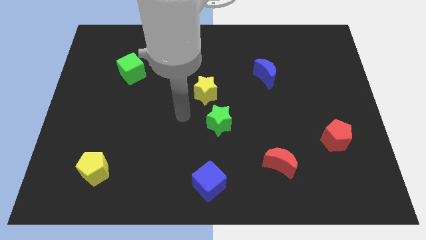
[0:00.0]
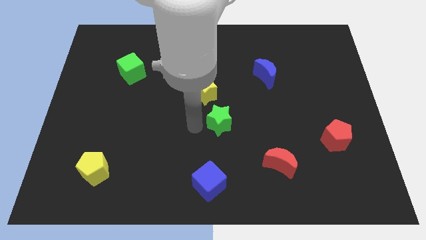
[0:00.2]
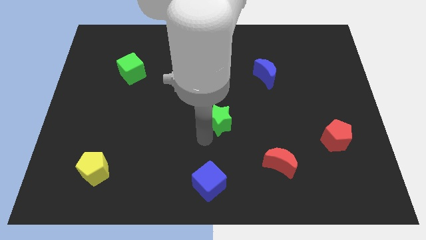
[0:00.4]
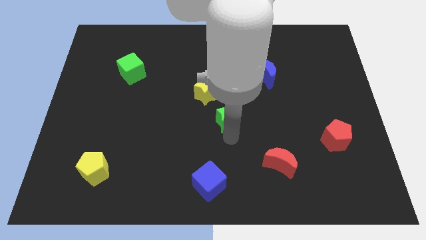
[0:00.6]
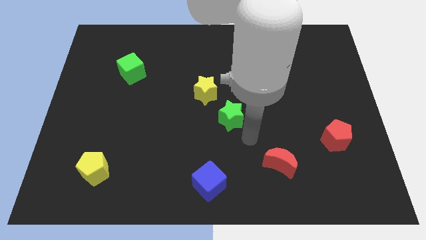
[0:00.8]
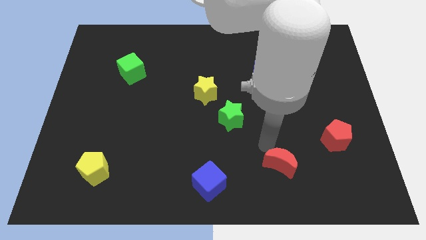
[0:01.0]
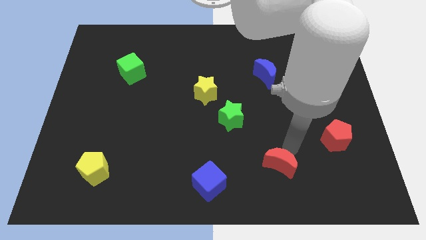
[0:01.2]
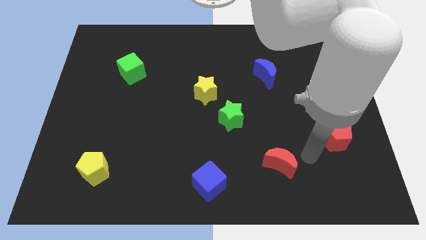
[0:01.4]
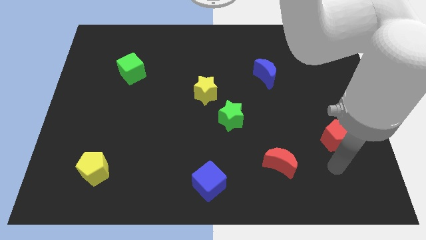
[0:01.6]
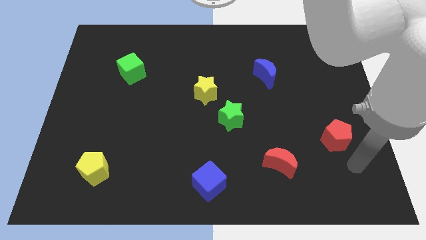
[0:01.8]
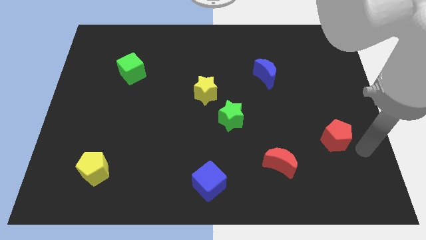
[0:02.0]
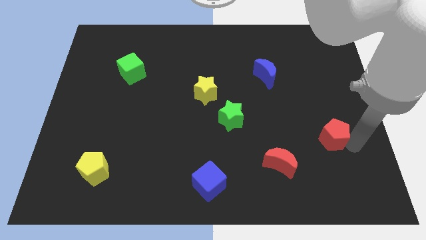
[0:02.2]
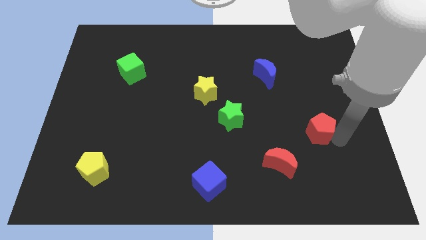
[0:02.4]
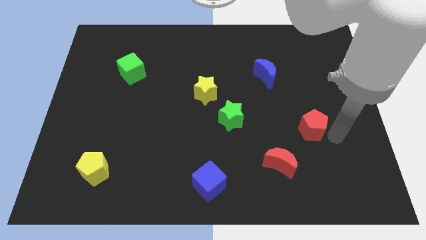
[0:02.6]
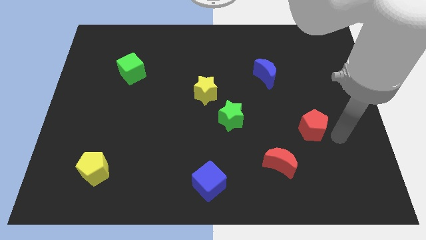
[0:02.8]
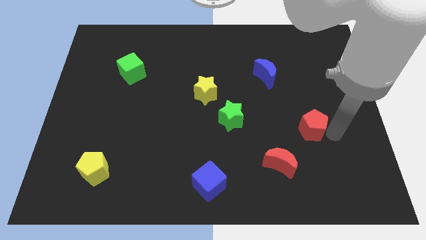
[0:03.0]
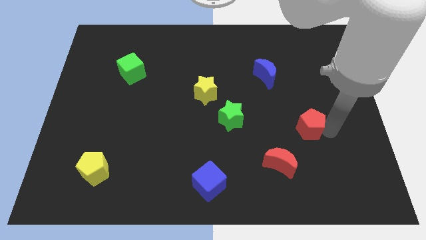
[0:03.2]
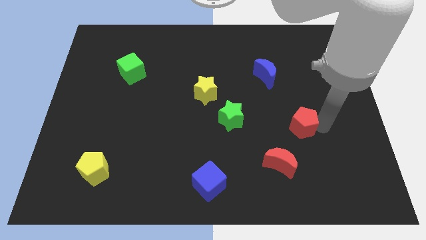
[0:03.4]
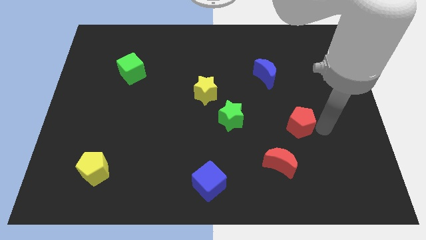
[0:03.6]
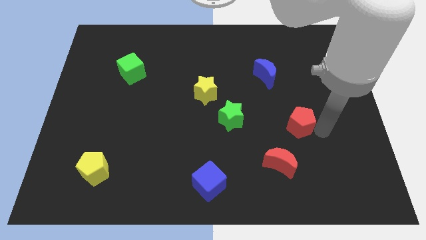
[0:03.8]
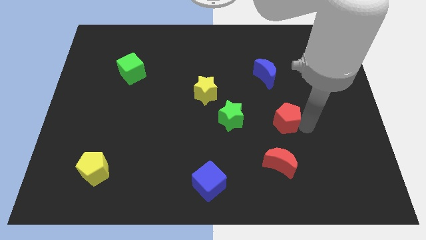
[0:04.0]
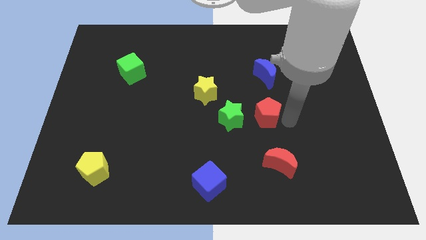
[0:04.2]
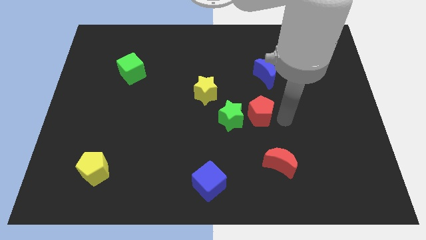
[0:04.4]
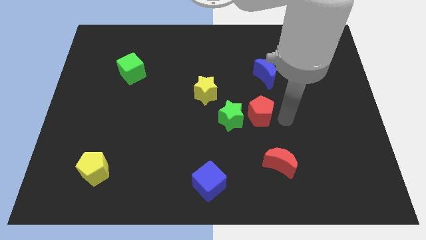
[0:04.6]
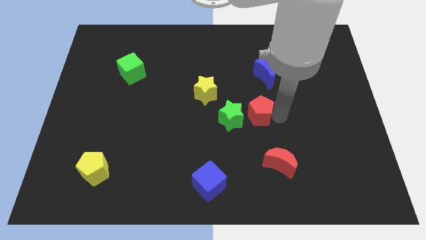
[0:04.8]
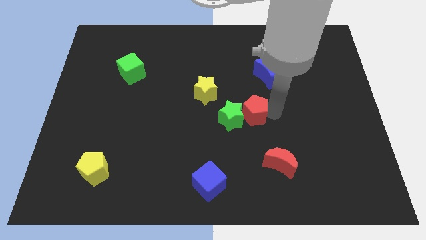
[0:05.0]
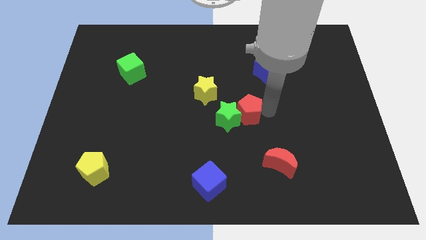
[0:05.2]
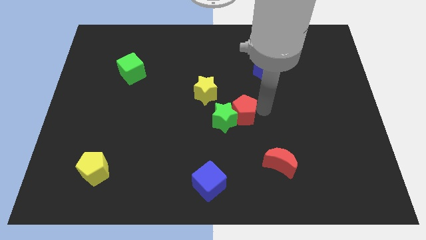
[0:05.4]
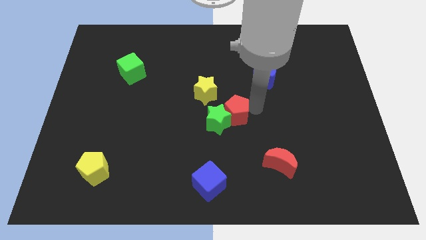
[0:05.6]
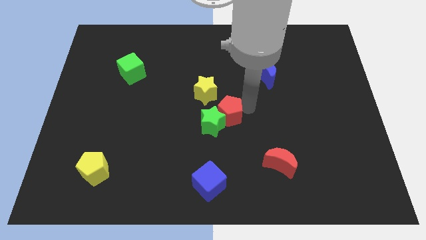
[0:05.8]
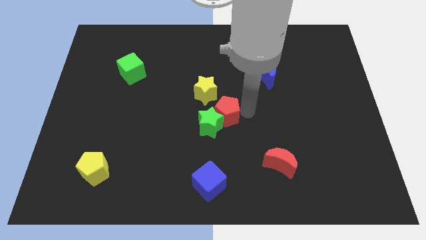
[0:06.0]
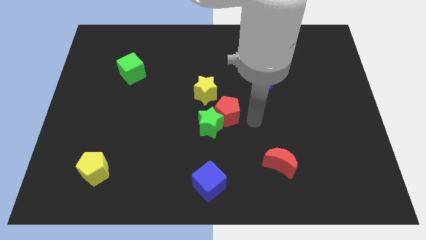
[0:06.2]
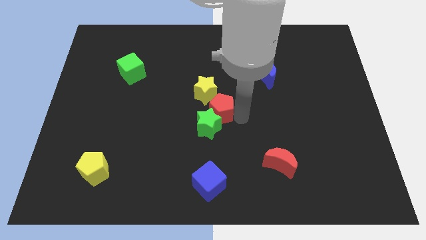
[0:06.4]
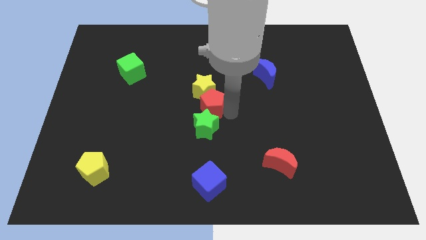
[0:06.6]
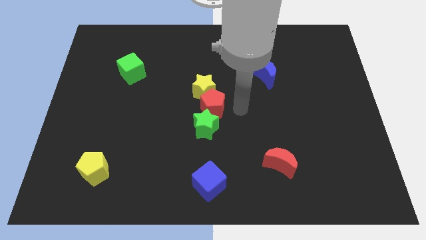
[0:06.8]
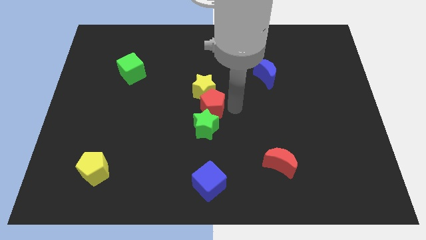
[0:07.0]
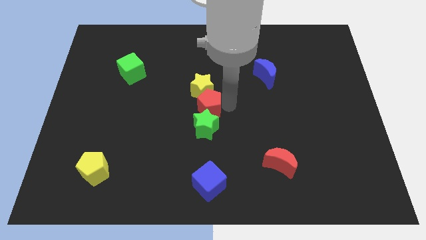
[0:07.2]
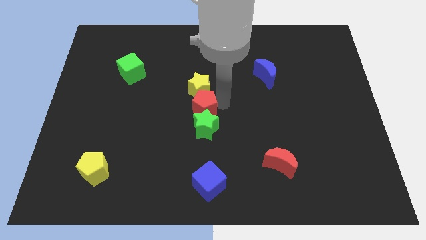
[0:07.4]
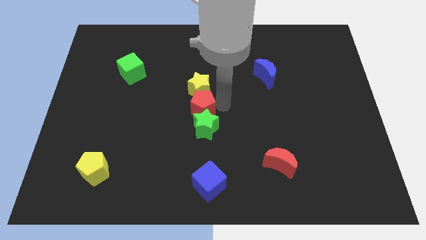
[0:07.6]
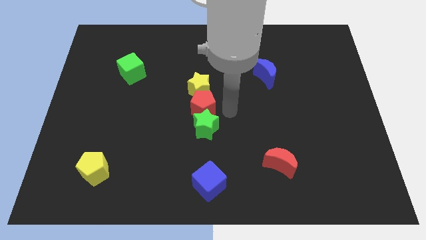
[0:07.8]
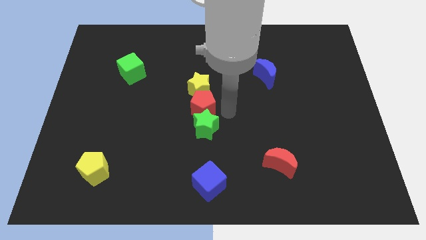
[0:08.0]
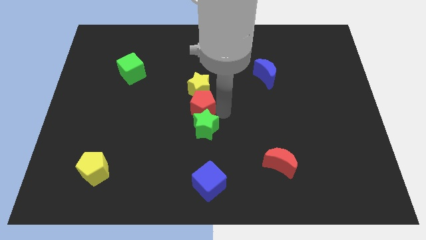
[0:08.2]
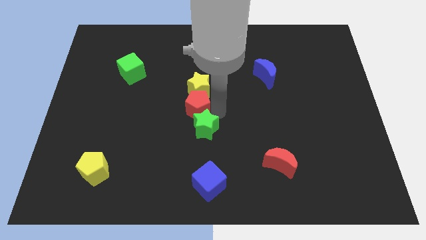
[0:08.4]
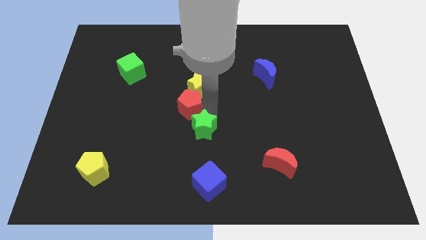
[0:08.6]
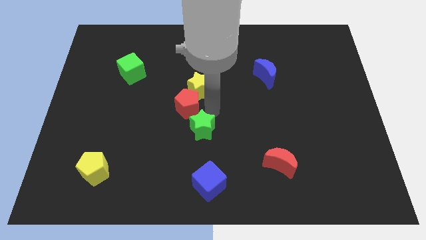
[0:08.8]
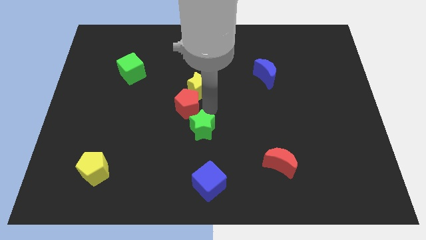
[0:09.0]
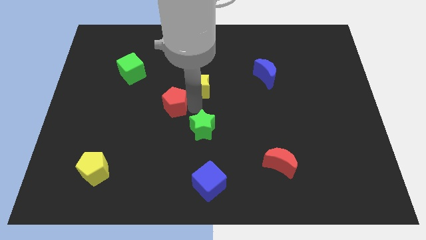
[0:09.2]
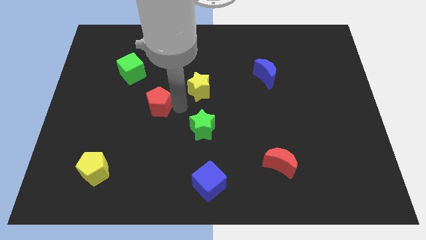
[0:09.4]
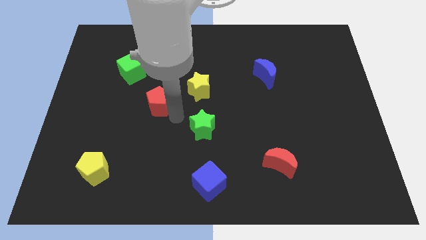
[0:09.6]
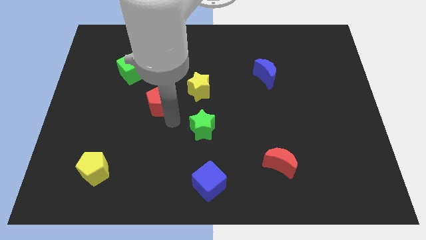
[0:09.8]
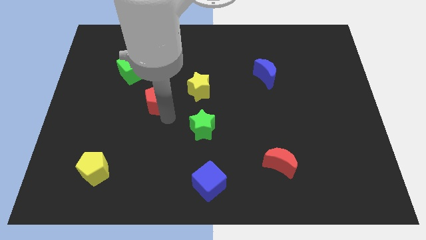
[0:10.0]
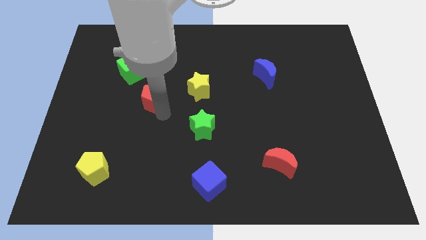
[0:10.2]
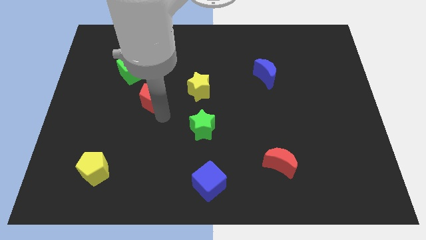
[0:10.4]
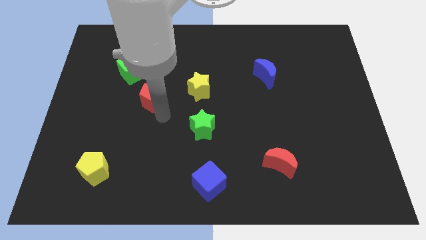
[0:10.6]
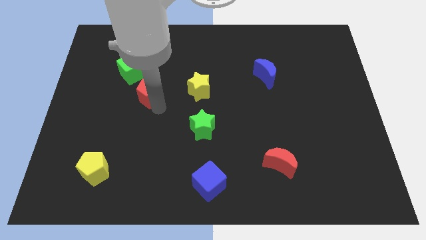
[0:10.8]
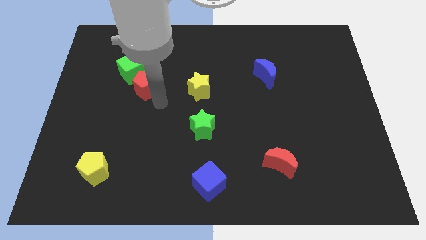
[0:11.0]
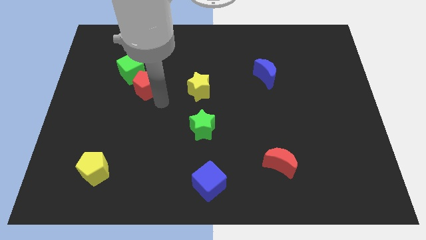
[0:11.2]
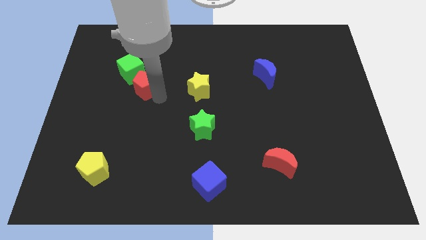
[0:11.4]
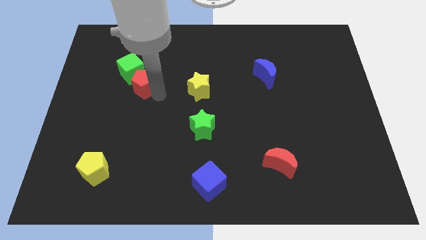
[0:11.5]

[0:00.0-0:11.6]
put the red pentagon to the green cube

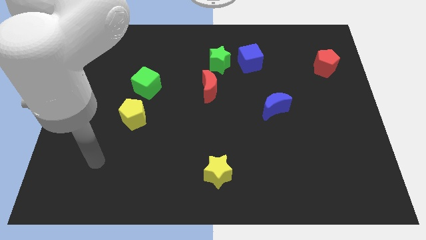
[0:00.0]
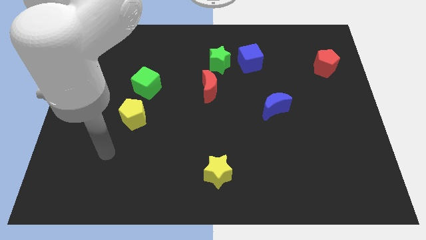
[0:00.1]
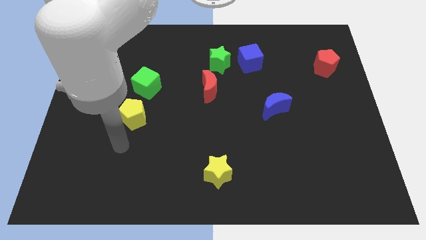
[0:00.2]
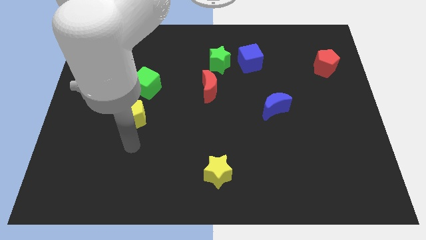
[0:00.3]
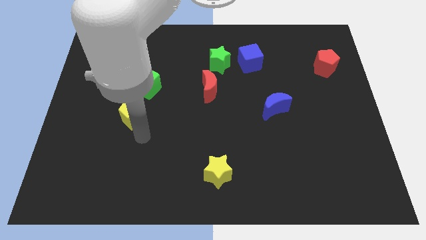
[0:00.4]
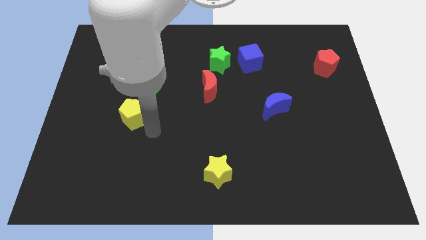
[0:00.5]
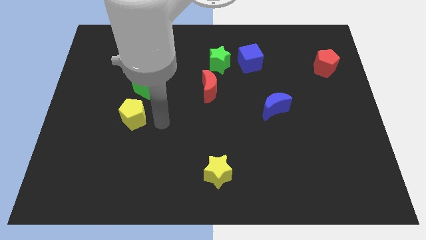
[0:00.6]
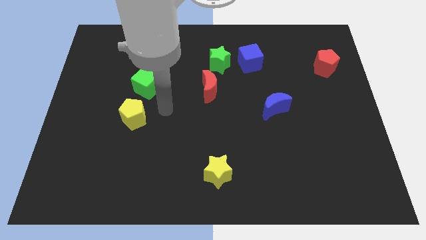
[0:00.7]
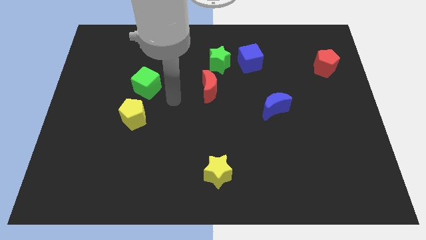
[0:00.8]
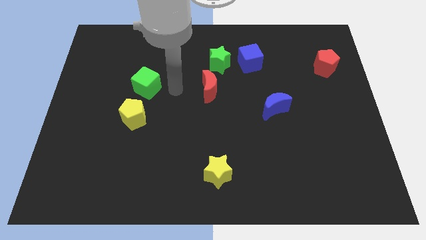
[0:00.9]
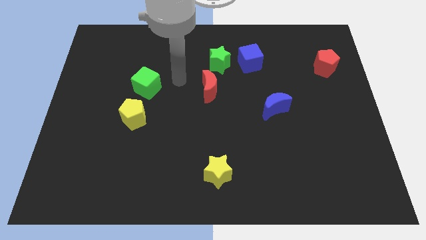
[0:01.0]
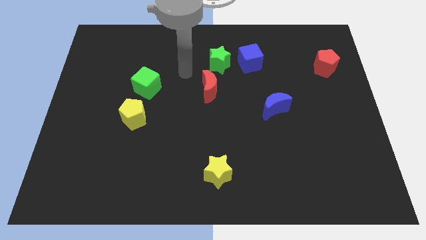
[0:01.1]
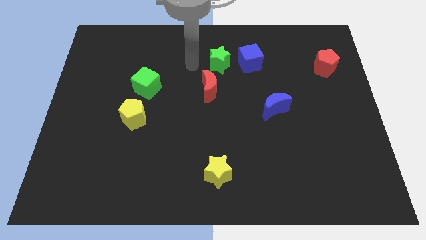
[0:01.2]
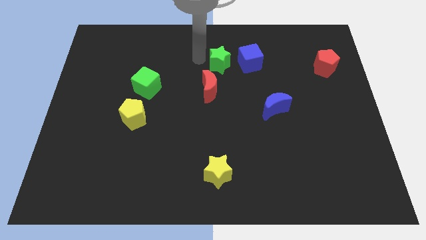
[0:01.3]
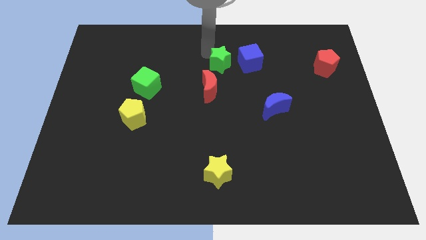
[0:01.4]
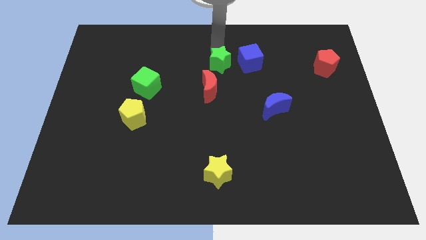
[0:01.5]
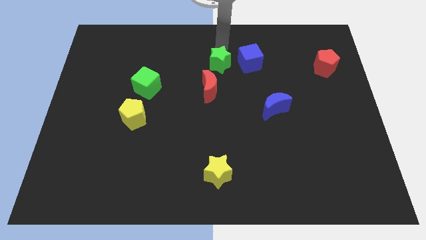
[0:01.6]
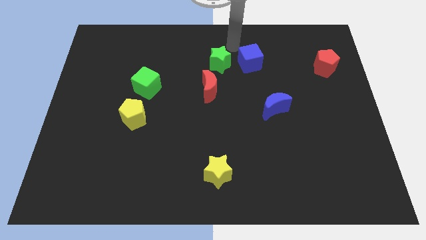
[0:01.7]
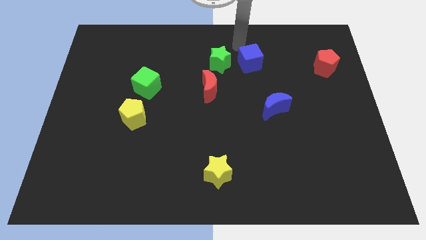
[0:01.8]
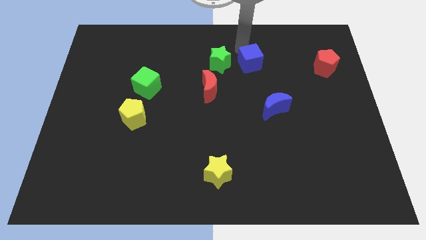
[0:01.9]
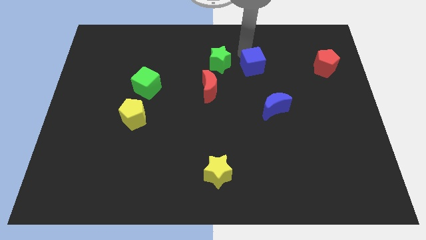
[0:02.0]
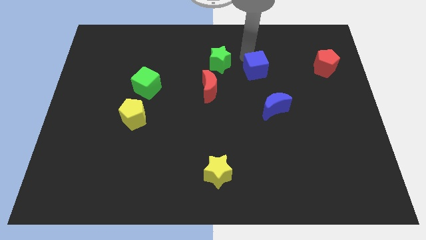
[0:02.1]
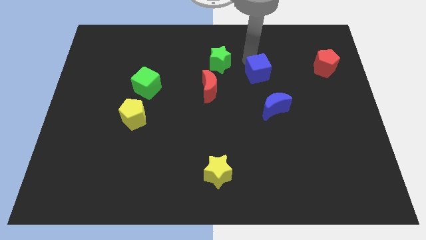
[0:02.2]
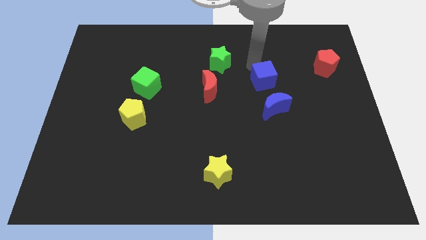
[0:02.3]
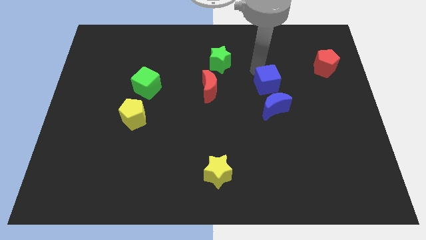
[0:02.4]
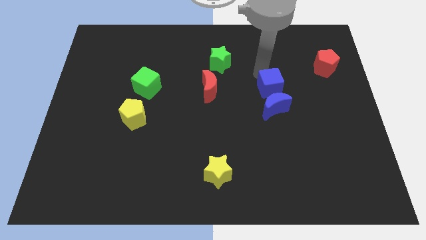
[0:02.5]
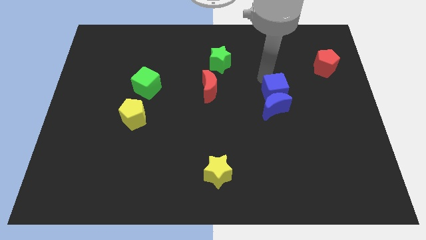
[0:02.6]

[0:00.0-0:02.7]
slide the blue cube close to the blue moon
